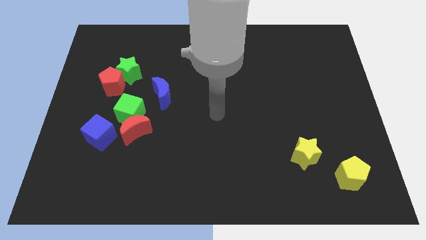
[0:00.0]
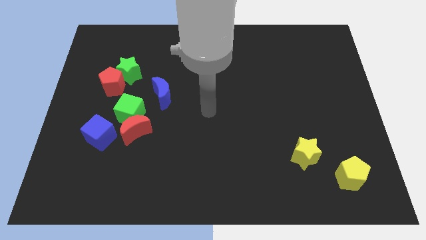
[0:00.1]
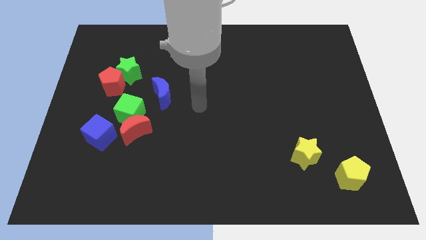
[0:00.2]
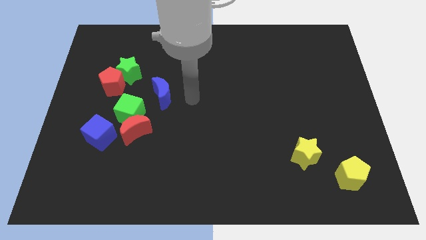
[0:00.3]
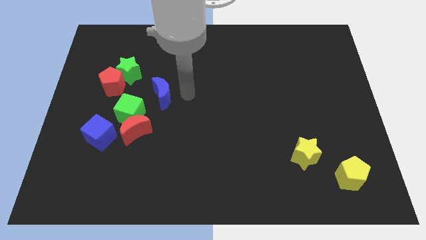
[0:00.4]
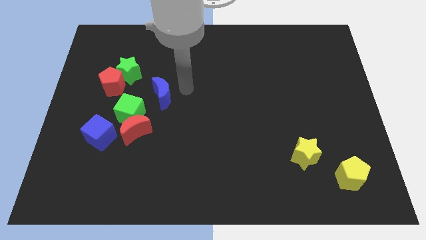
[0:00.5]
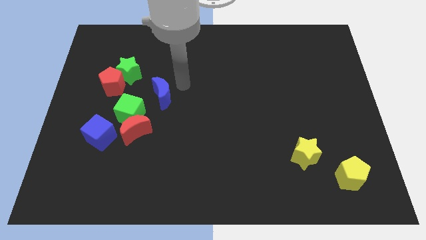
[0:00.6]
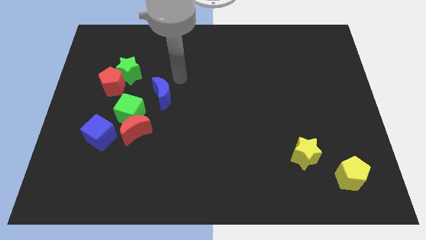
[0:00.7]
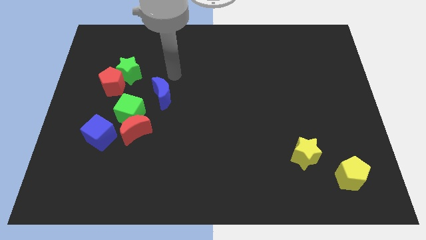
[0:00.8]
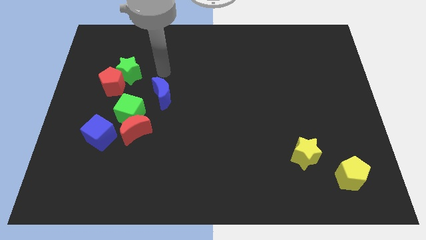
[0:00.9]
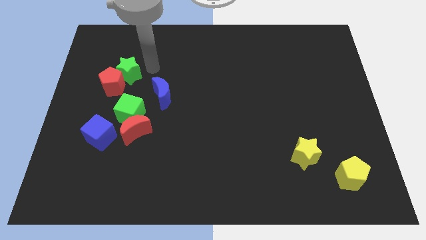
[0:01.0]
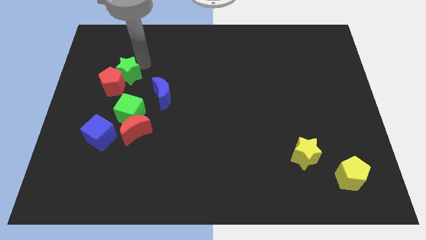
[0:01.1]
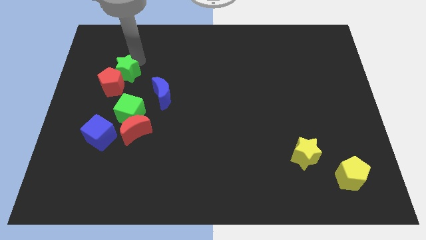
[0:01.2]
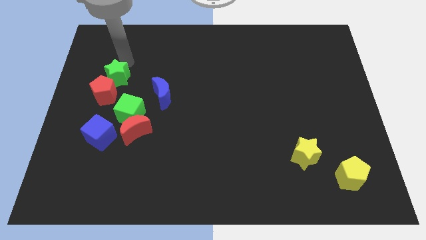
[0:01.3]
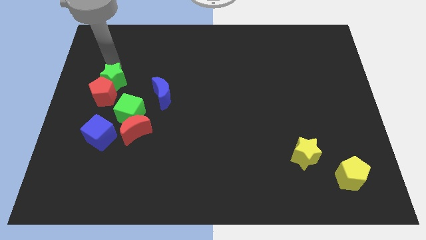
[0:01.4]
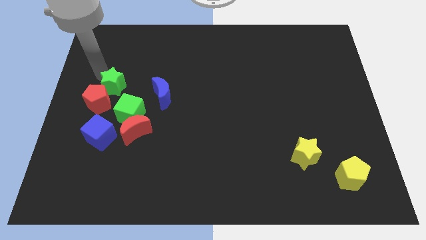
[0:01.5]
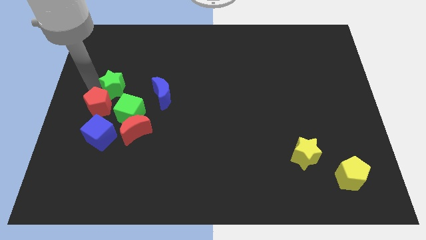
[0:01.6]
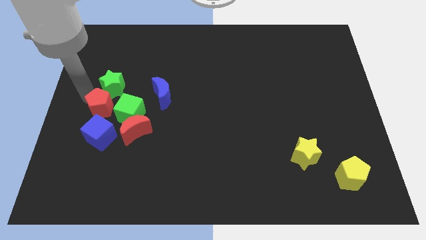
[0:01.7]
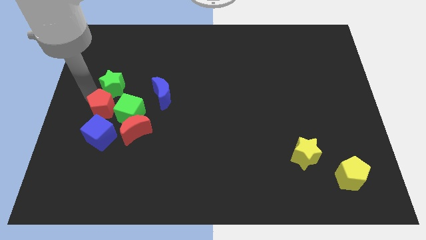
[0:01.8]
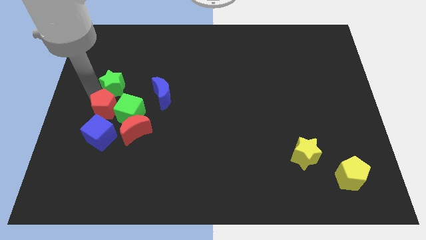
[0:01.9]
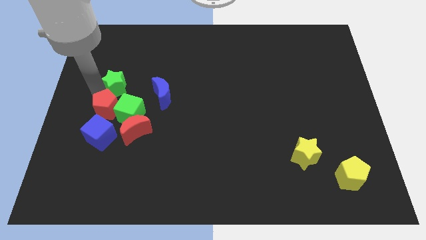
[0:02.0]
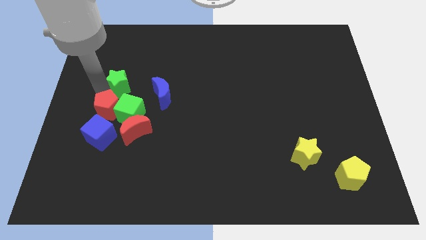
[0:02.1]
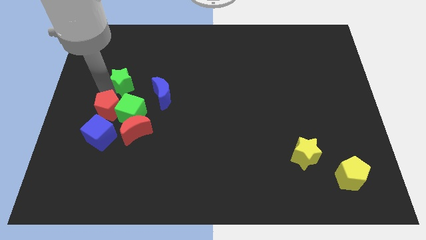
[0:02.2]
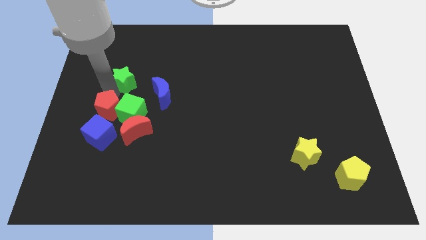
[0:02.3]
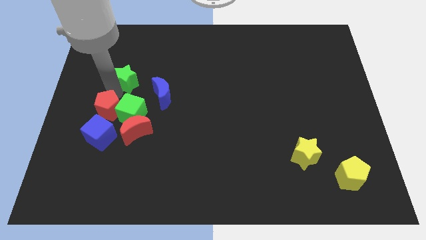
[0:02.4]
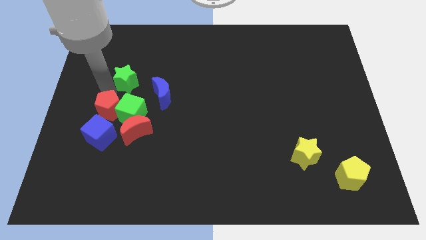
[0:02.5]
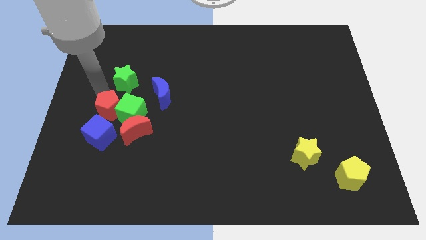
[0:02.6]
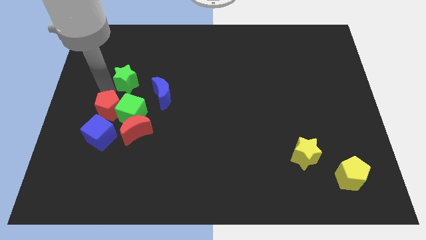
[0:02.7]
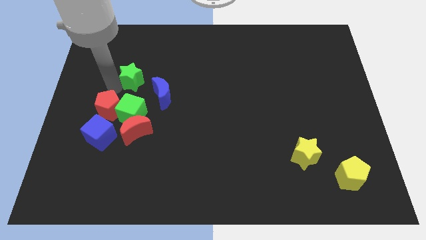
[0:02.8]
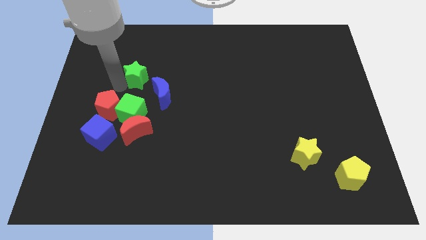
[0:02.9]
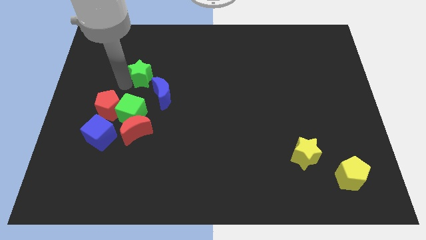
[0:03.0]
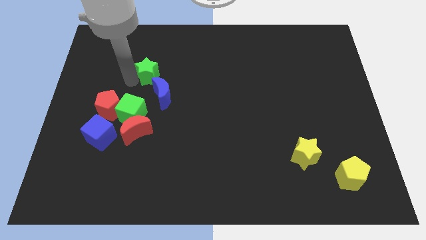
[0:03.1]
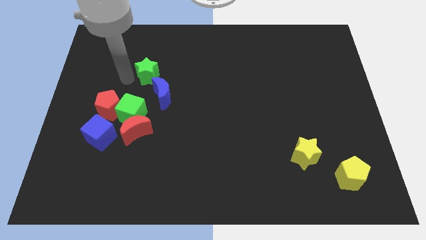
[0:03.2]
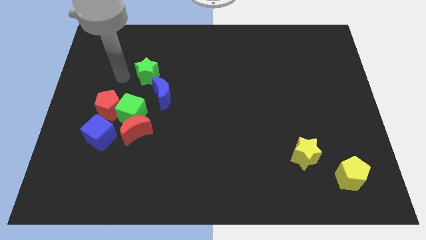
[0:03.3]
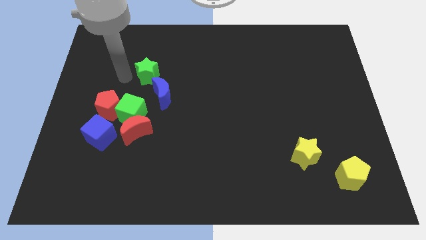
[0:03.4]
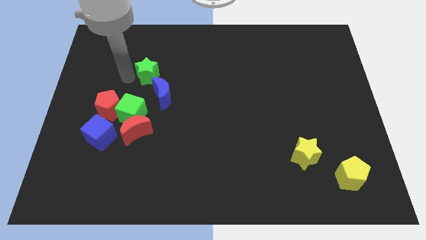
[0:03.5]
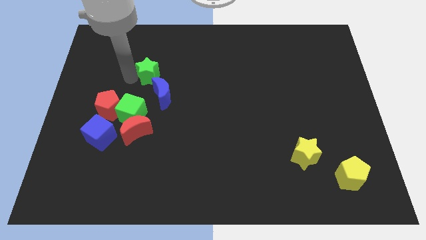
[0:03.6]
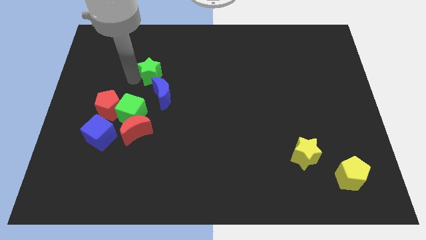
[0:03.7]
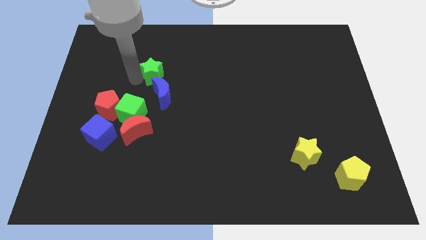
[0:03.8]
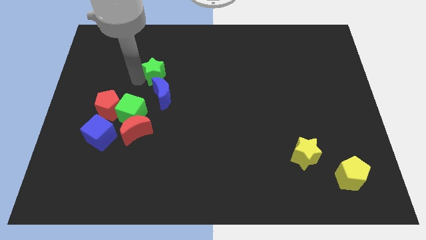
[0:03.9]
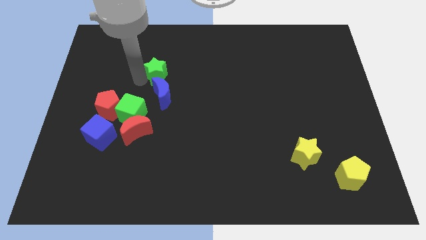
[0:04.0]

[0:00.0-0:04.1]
slide the green star a little right

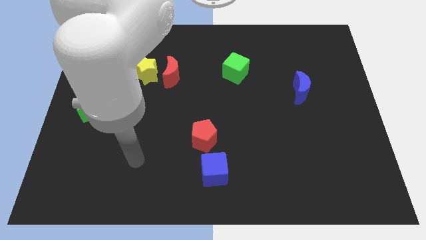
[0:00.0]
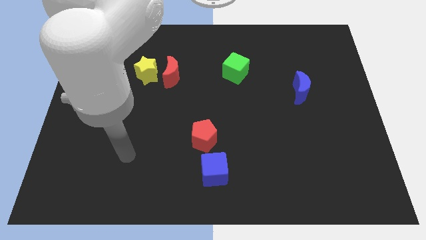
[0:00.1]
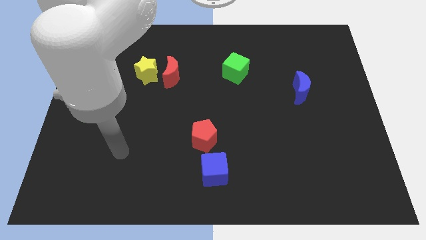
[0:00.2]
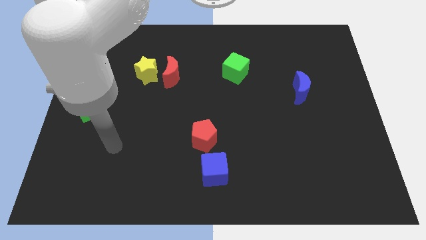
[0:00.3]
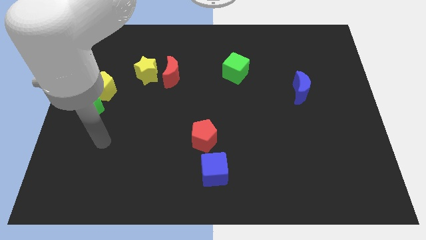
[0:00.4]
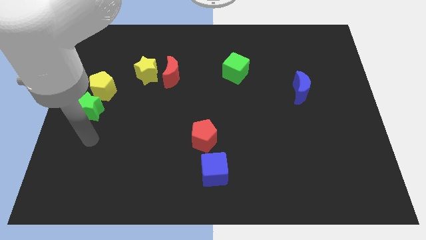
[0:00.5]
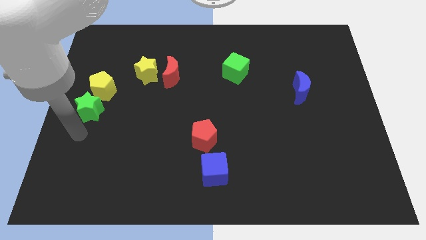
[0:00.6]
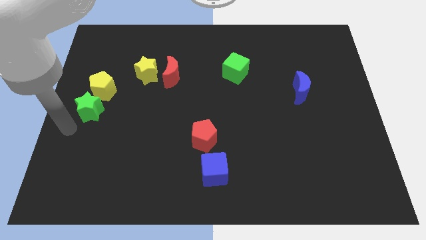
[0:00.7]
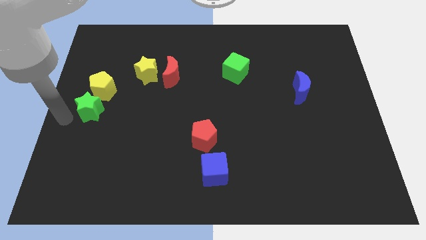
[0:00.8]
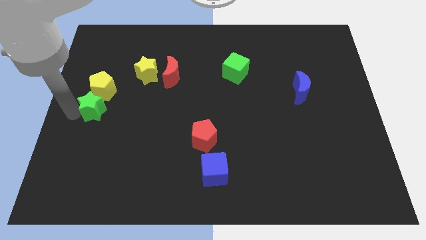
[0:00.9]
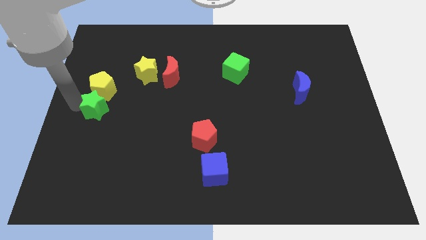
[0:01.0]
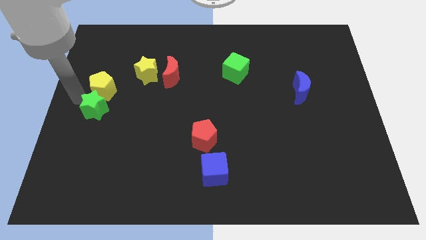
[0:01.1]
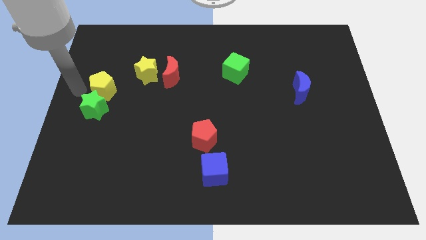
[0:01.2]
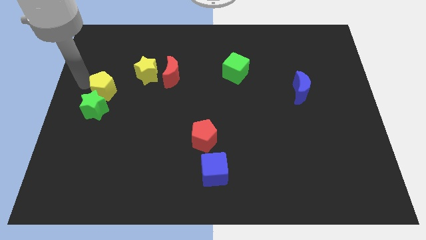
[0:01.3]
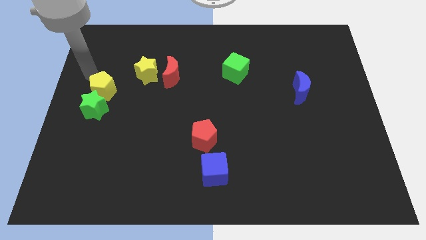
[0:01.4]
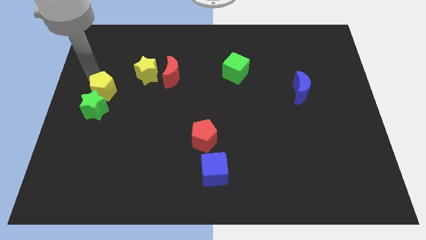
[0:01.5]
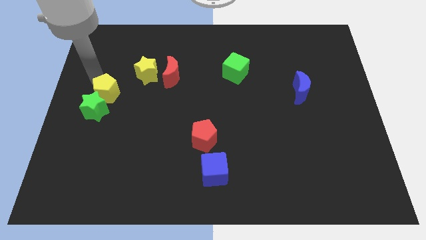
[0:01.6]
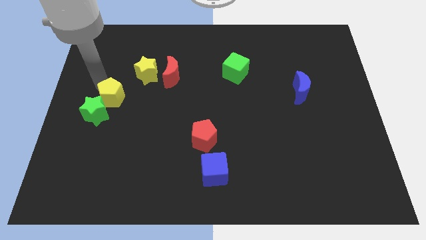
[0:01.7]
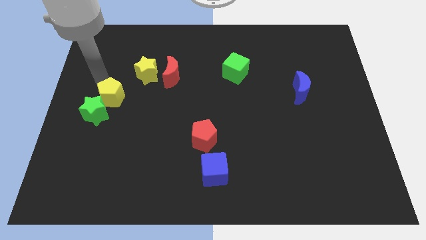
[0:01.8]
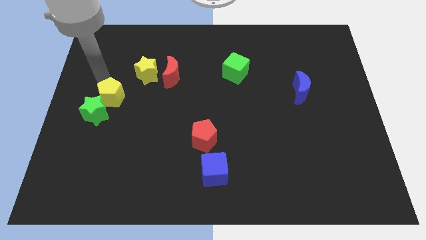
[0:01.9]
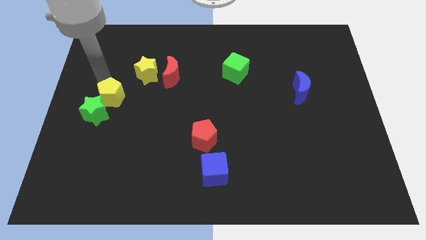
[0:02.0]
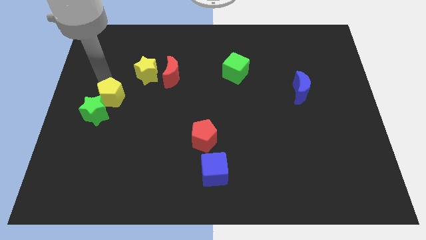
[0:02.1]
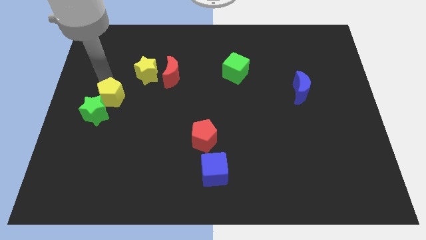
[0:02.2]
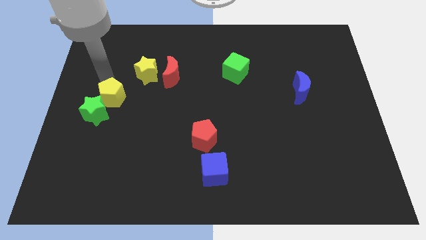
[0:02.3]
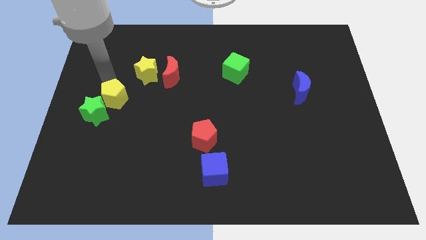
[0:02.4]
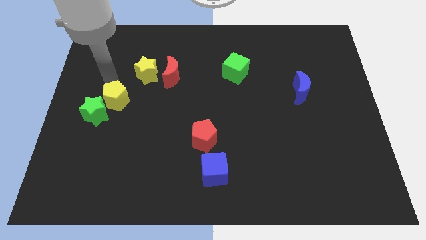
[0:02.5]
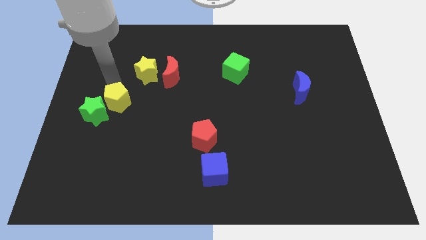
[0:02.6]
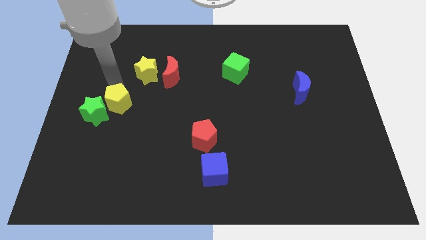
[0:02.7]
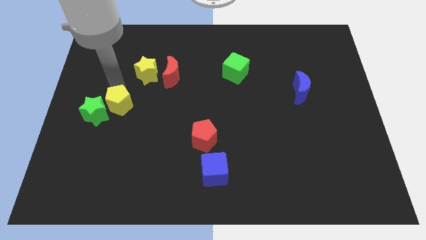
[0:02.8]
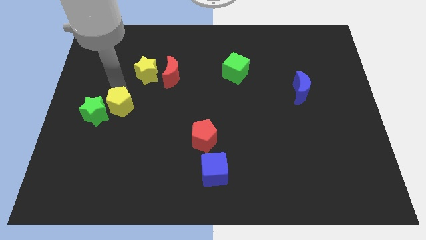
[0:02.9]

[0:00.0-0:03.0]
push the yellow pentagon a little bit down and then right

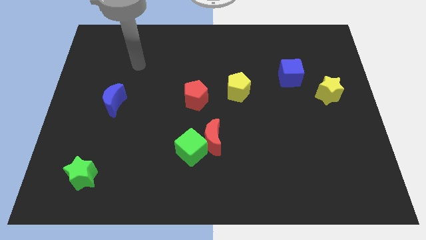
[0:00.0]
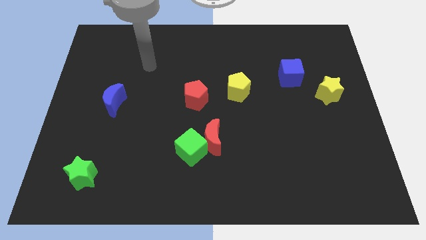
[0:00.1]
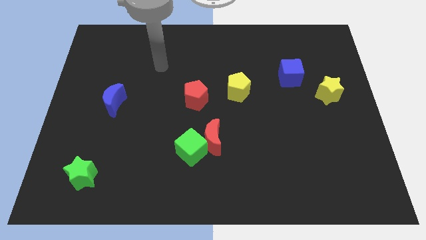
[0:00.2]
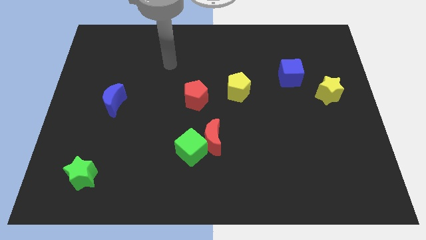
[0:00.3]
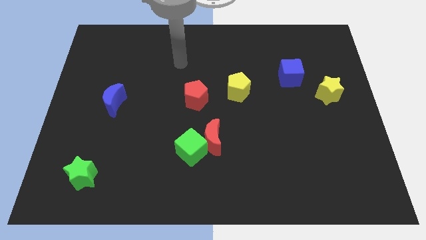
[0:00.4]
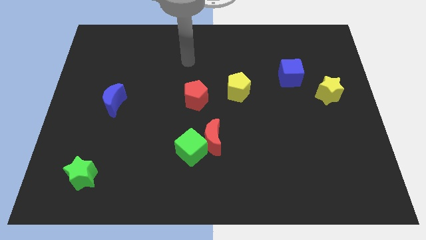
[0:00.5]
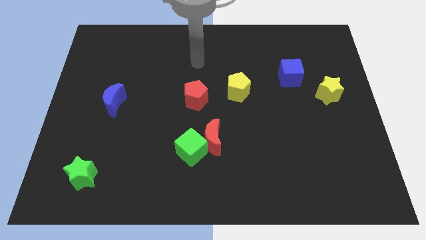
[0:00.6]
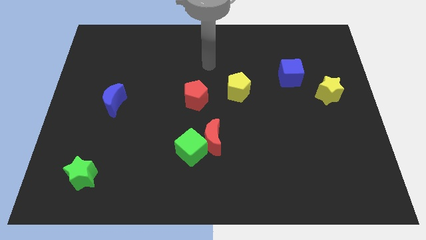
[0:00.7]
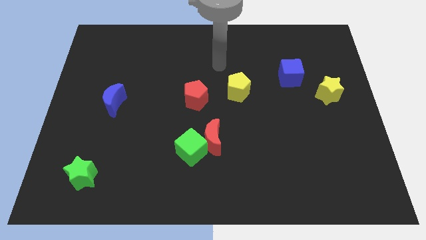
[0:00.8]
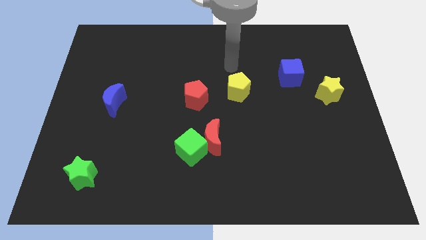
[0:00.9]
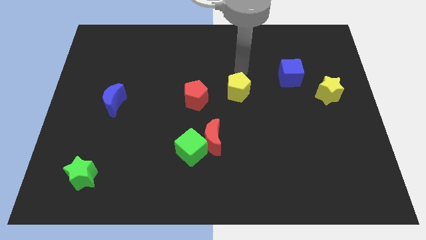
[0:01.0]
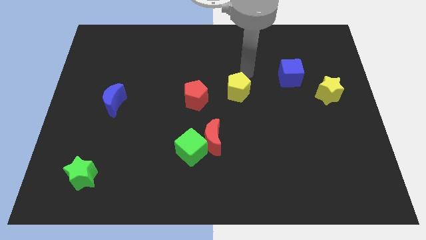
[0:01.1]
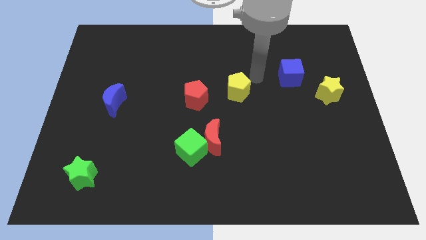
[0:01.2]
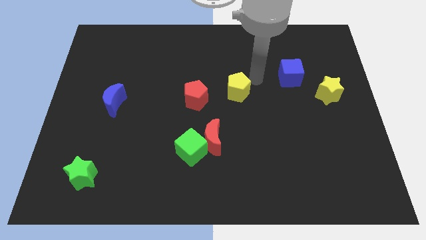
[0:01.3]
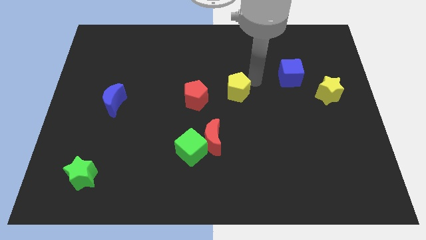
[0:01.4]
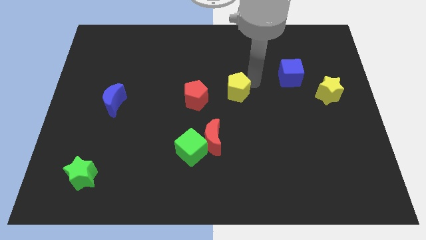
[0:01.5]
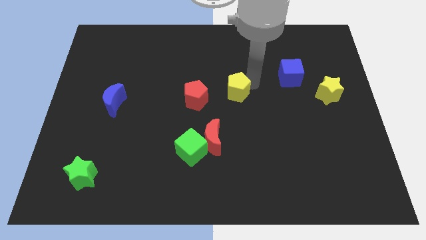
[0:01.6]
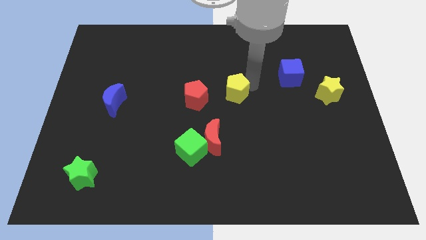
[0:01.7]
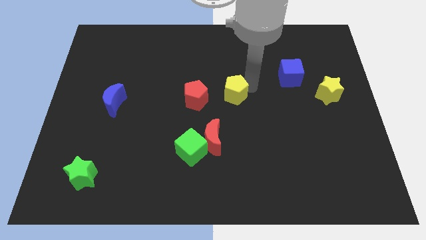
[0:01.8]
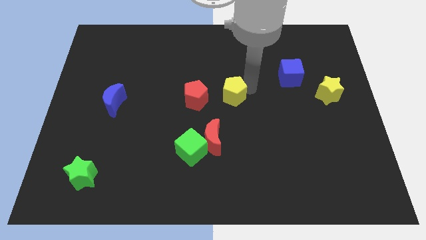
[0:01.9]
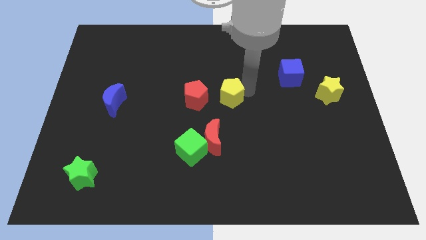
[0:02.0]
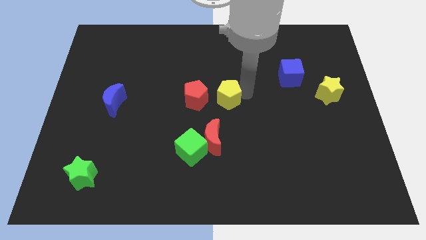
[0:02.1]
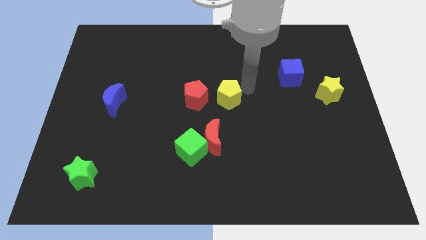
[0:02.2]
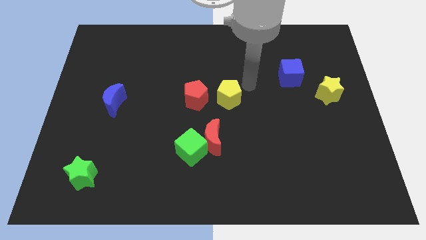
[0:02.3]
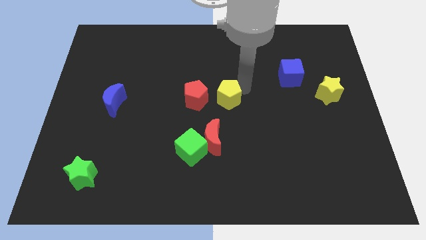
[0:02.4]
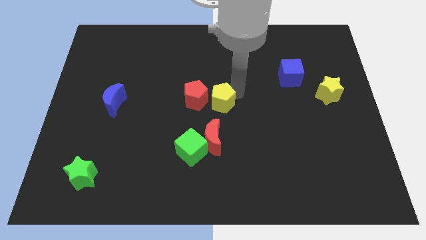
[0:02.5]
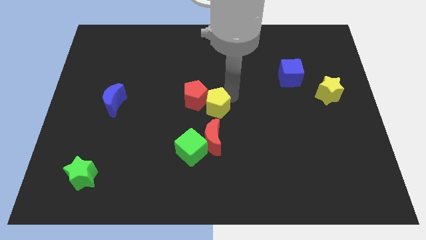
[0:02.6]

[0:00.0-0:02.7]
move the yellow pentagon diagonally downwards and to the left a little
